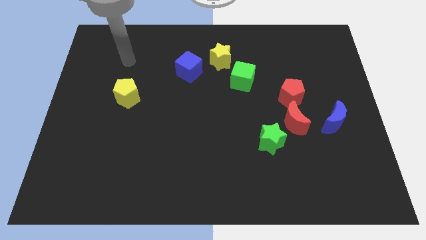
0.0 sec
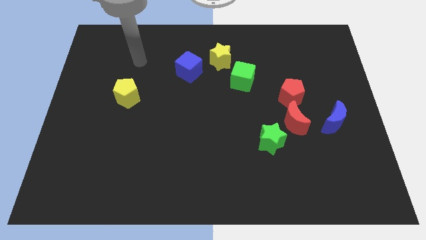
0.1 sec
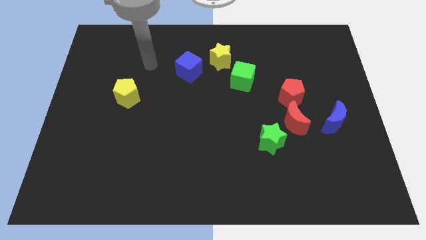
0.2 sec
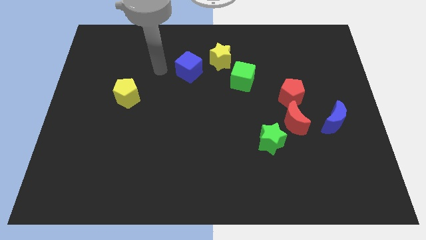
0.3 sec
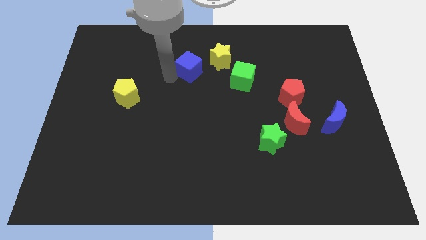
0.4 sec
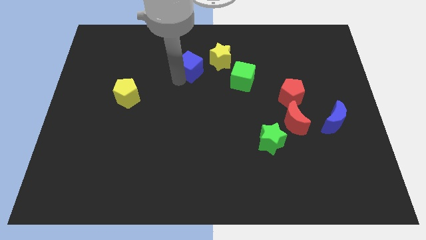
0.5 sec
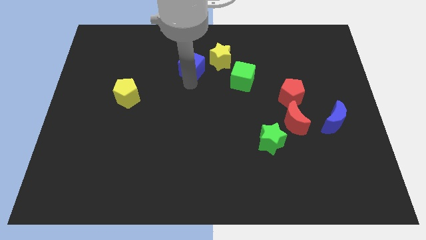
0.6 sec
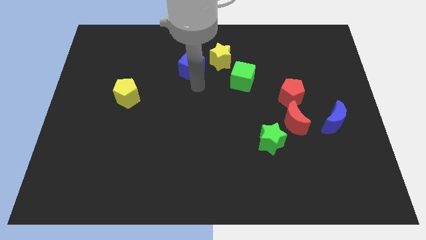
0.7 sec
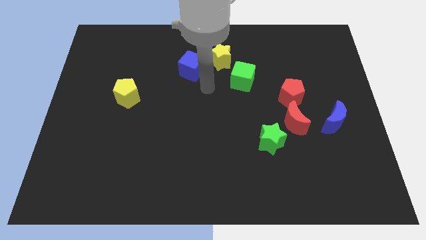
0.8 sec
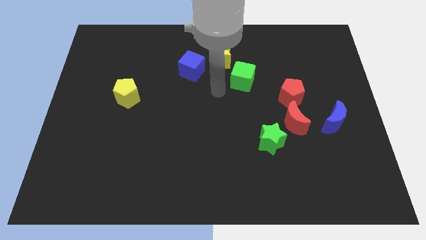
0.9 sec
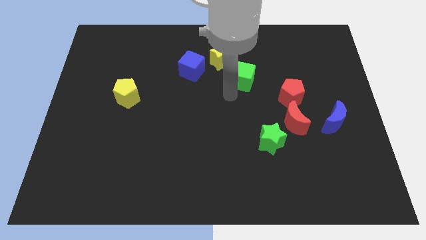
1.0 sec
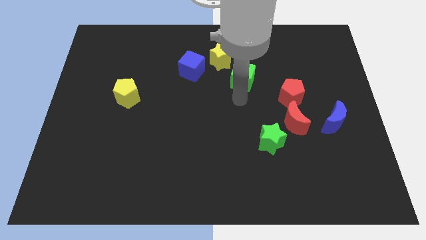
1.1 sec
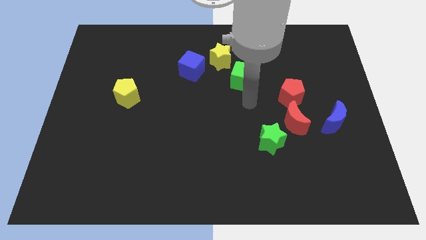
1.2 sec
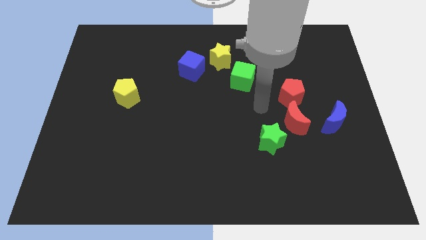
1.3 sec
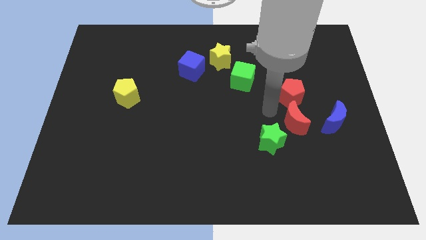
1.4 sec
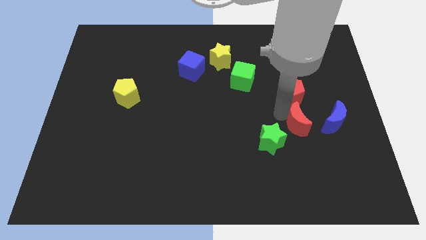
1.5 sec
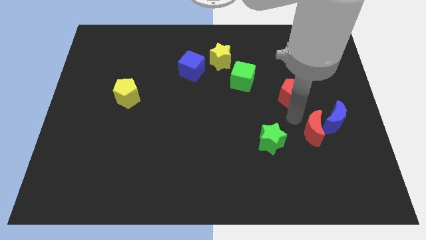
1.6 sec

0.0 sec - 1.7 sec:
move the red pentagon away from the red moon

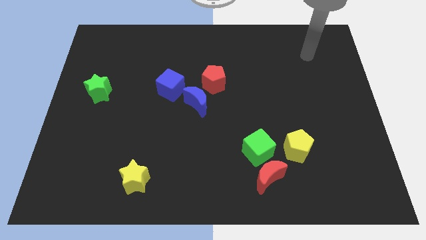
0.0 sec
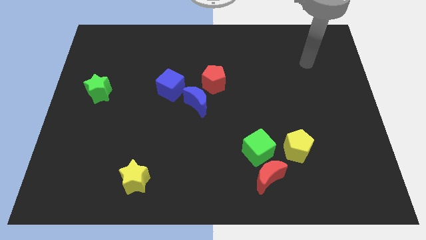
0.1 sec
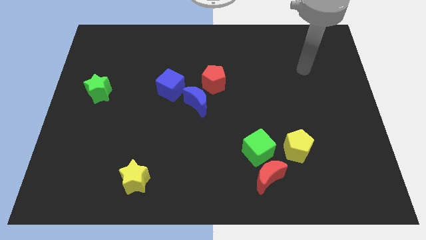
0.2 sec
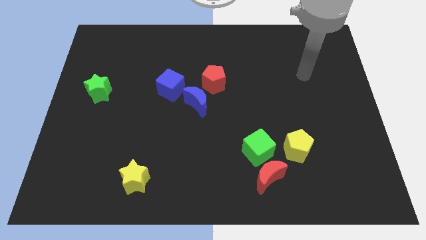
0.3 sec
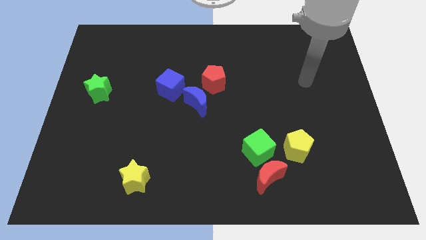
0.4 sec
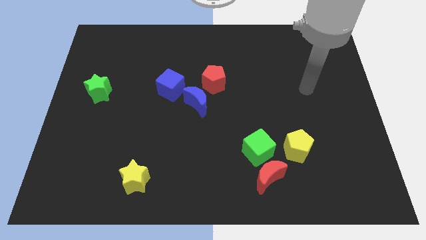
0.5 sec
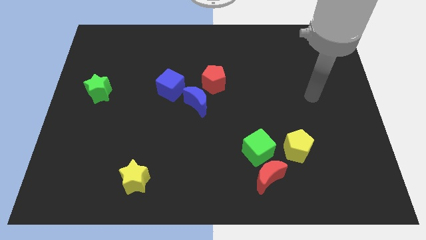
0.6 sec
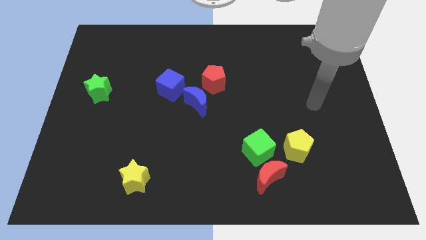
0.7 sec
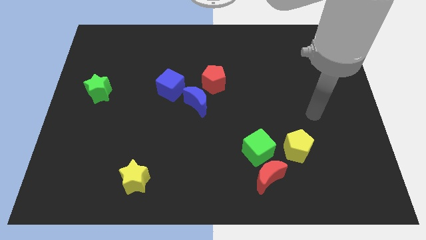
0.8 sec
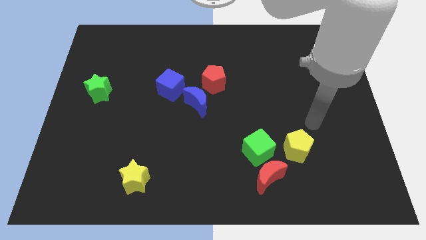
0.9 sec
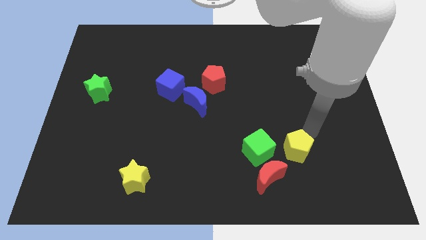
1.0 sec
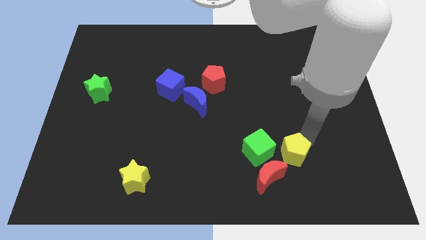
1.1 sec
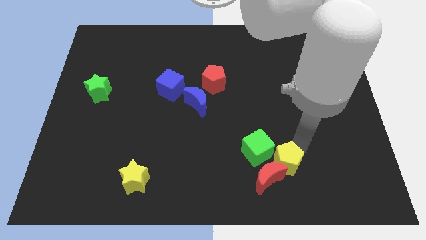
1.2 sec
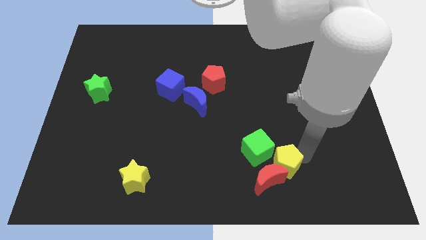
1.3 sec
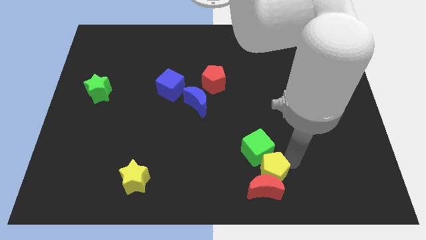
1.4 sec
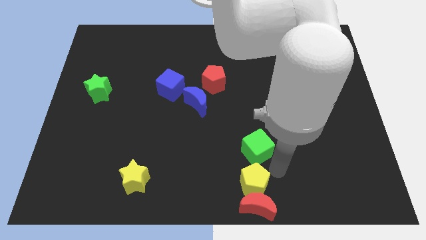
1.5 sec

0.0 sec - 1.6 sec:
move the green cube away from the red moon and yellow pentagon

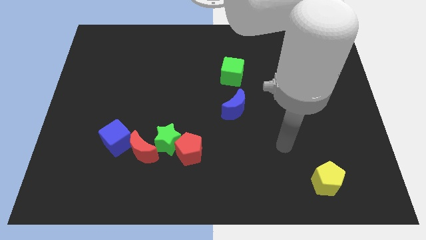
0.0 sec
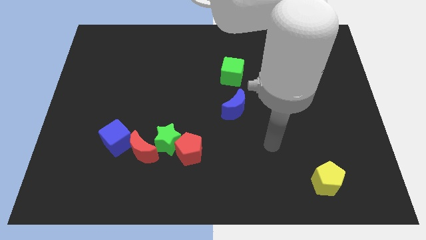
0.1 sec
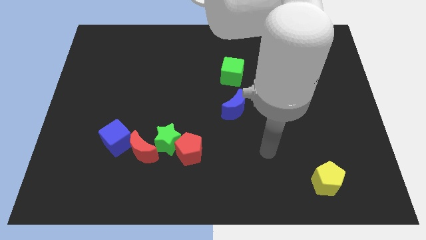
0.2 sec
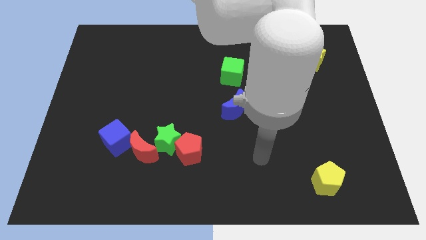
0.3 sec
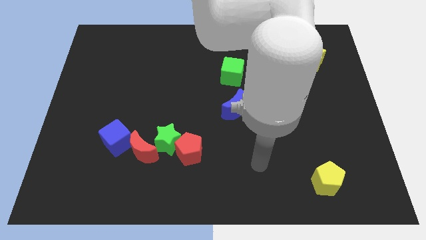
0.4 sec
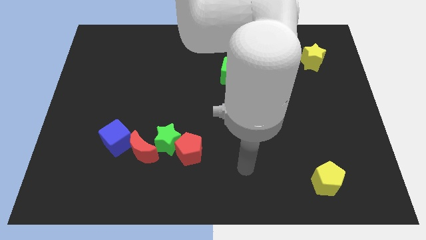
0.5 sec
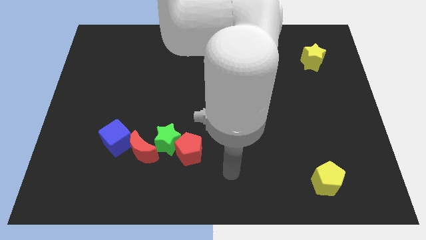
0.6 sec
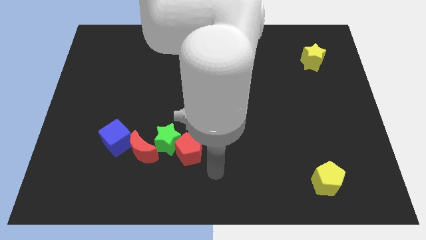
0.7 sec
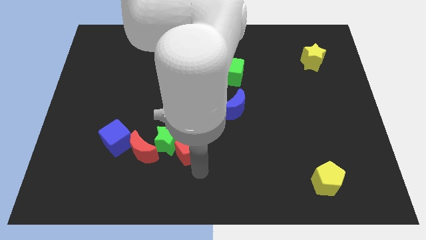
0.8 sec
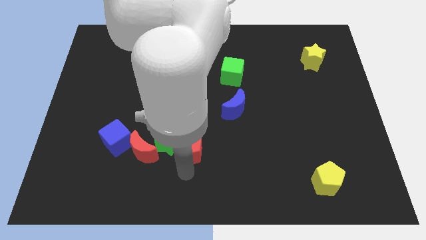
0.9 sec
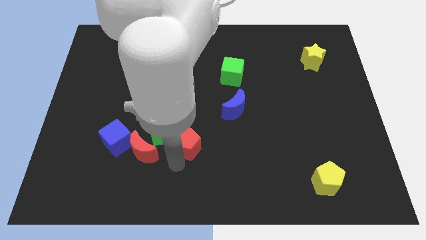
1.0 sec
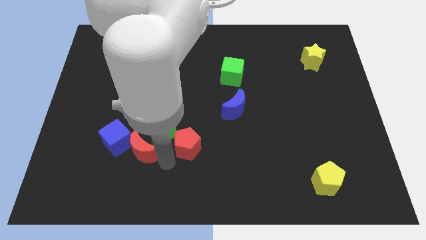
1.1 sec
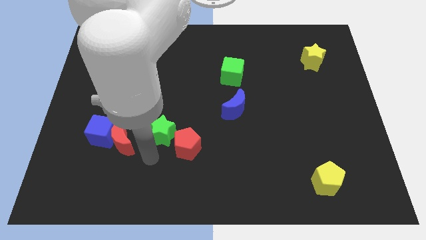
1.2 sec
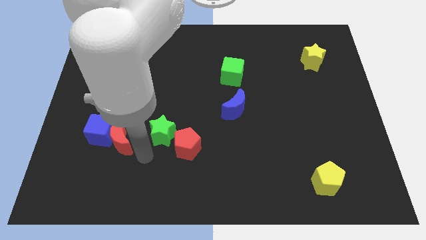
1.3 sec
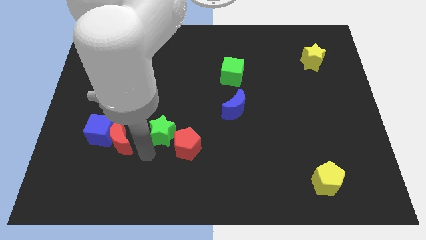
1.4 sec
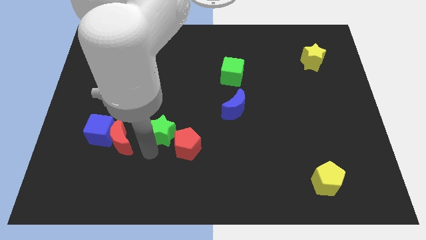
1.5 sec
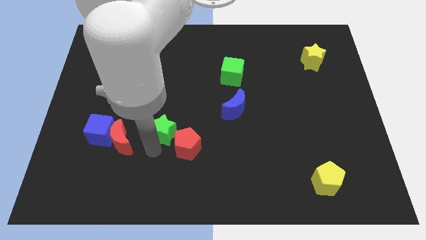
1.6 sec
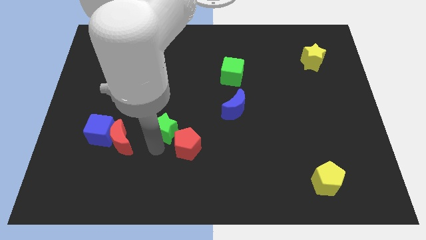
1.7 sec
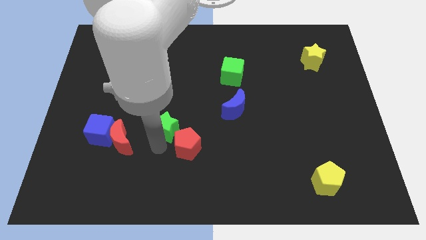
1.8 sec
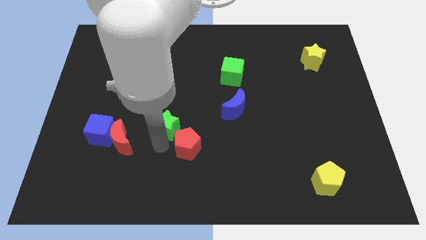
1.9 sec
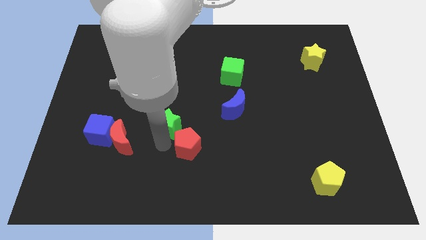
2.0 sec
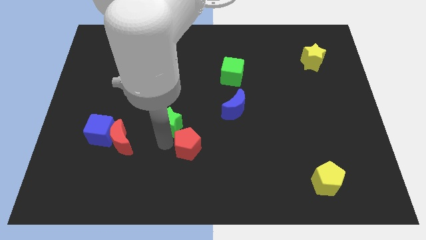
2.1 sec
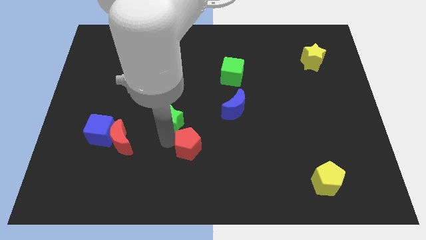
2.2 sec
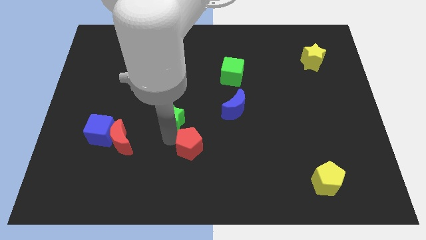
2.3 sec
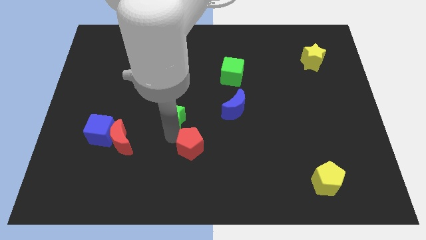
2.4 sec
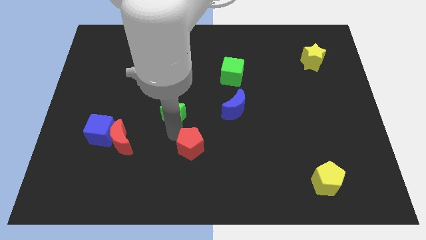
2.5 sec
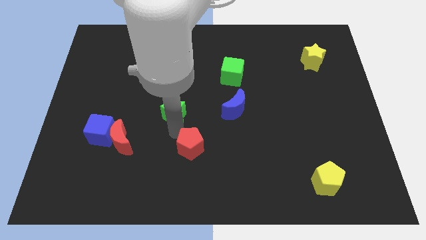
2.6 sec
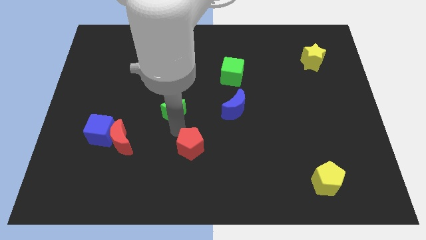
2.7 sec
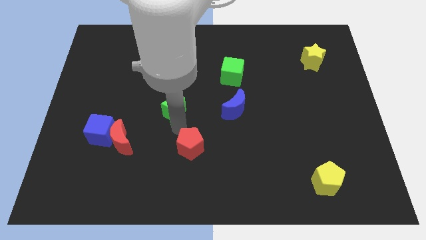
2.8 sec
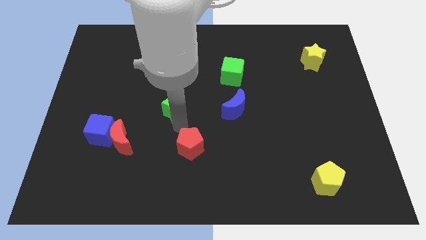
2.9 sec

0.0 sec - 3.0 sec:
separate the green star from the red pentagon and red moon

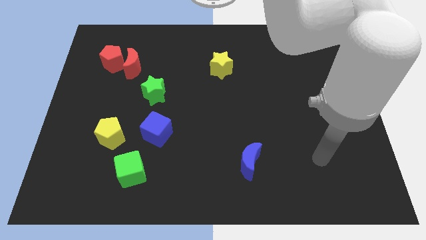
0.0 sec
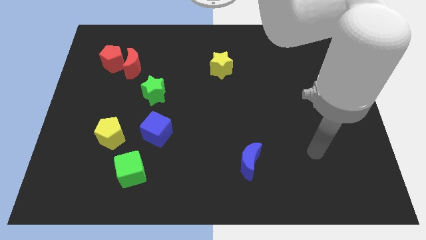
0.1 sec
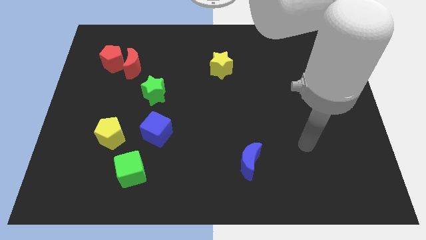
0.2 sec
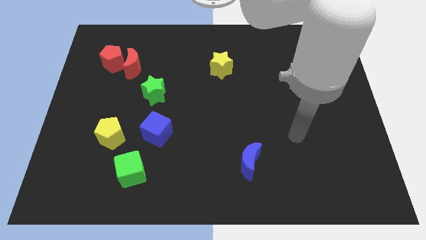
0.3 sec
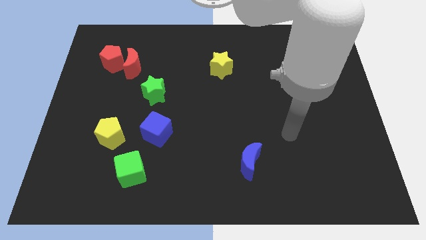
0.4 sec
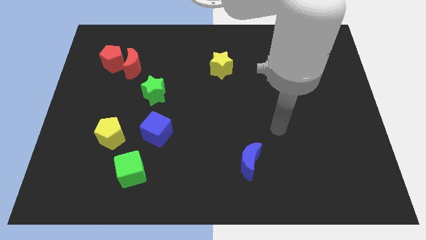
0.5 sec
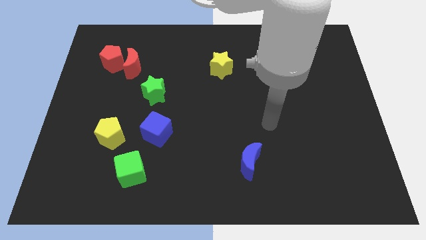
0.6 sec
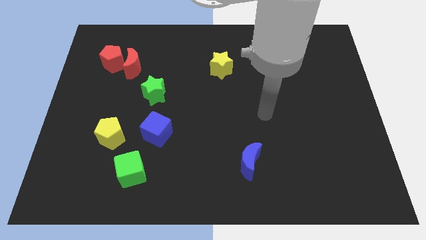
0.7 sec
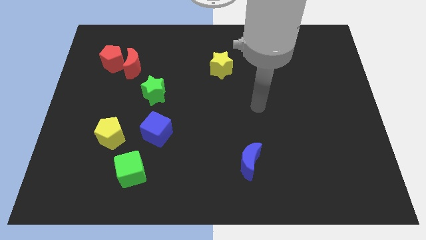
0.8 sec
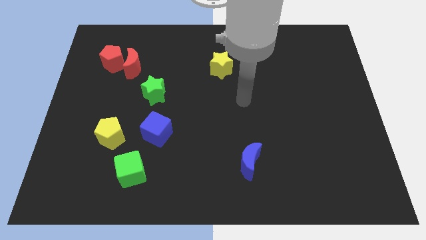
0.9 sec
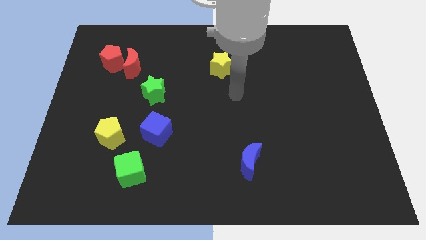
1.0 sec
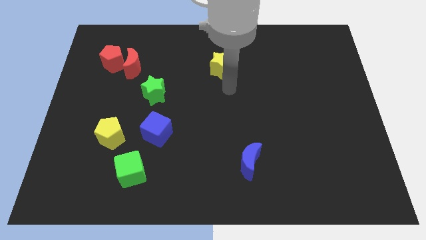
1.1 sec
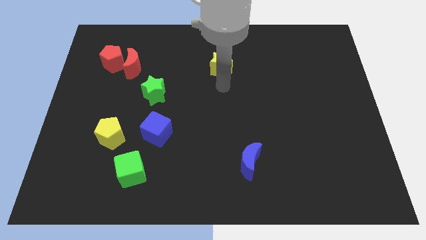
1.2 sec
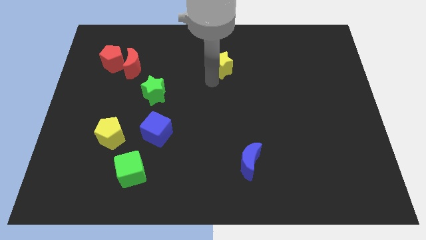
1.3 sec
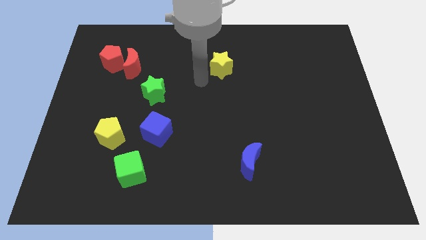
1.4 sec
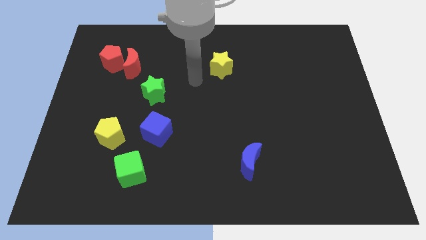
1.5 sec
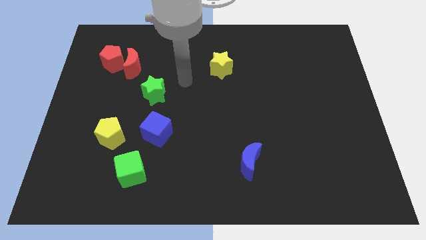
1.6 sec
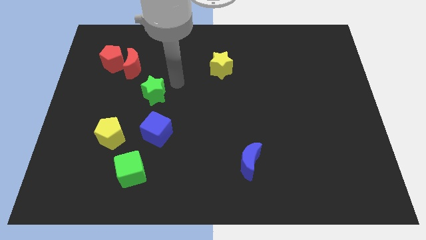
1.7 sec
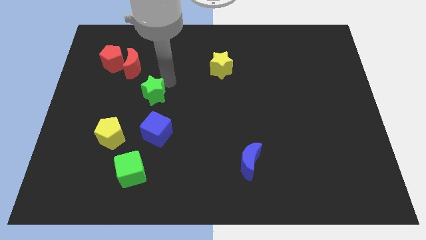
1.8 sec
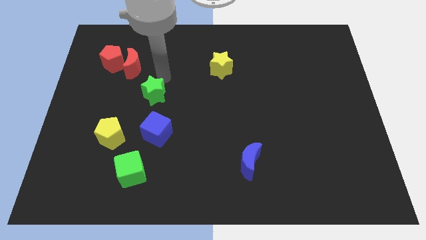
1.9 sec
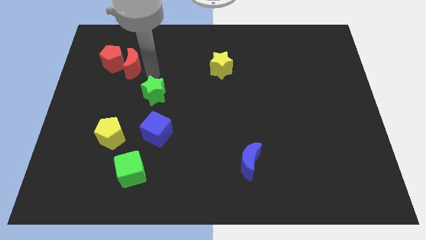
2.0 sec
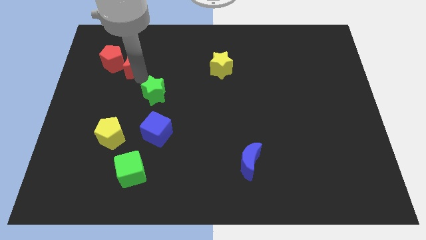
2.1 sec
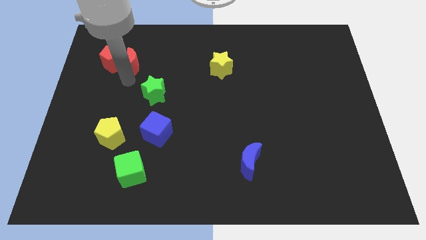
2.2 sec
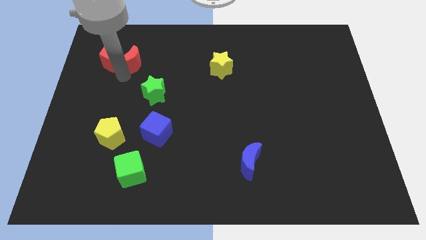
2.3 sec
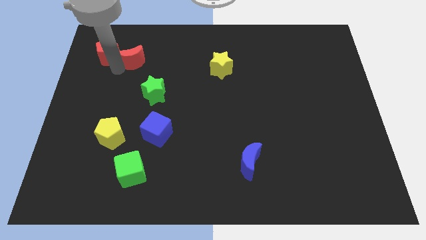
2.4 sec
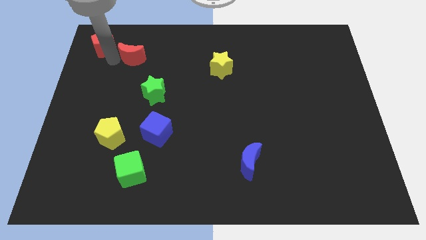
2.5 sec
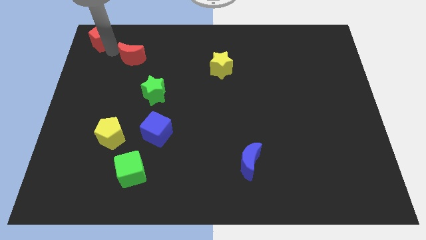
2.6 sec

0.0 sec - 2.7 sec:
pull the red moon apart from the red pentagon

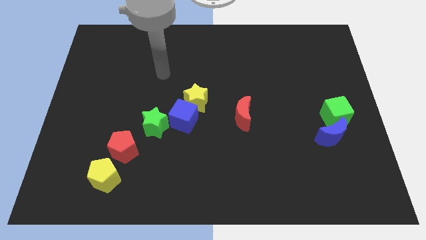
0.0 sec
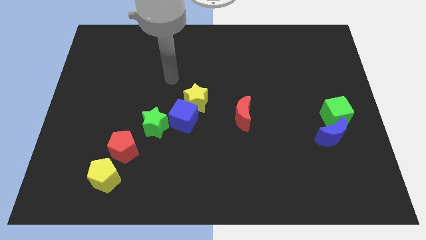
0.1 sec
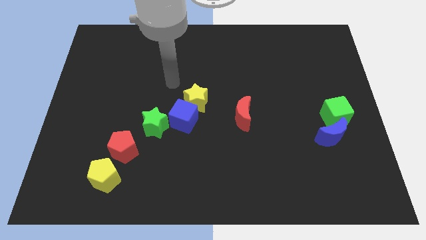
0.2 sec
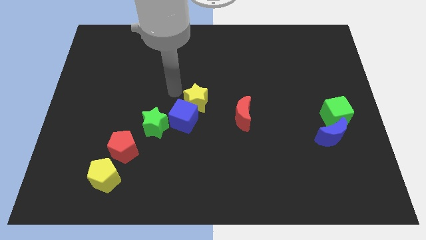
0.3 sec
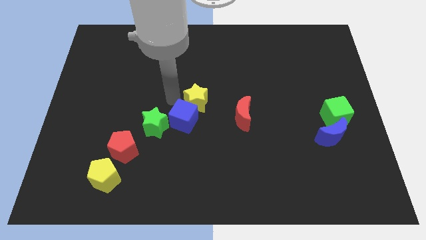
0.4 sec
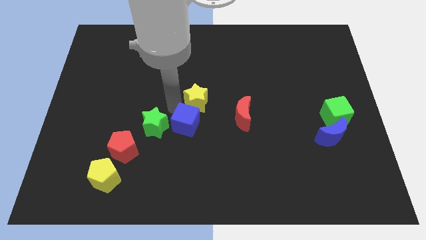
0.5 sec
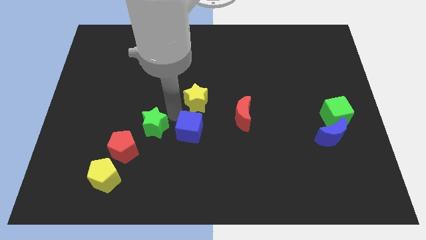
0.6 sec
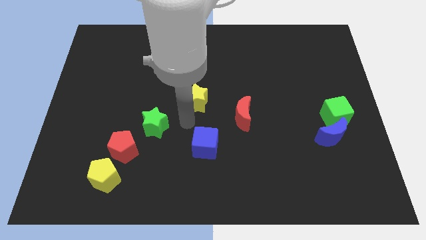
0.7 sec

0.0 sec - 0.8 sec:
move the yellow star away from the blue cube
